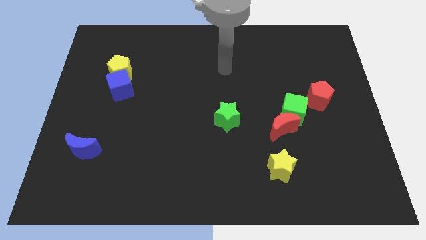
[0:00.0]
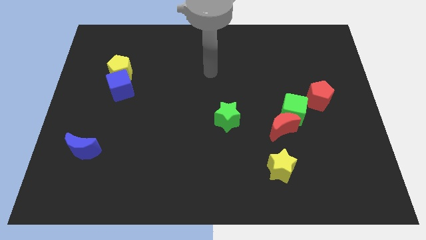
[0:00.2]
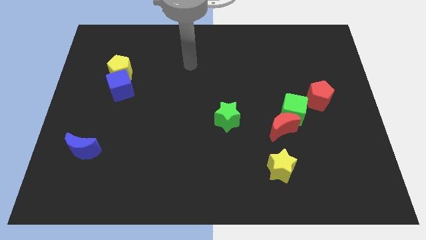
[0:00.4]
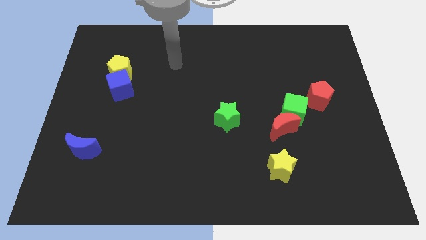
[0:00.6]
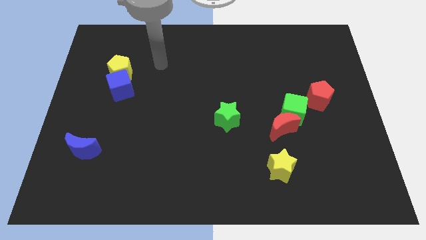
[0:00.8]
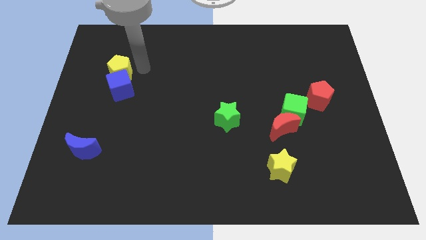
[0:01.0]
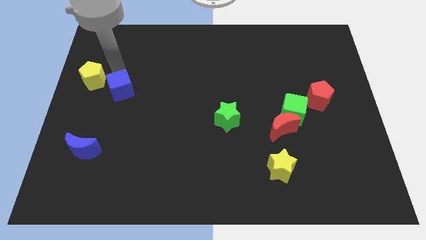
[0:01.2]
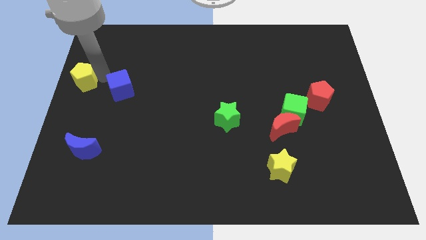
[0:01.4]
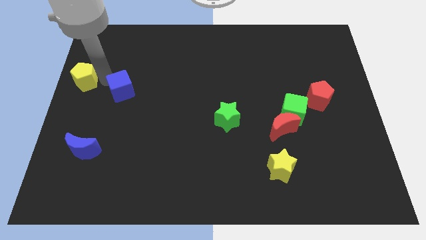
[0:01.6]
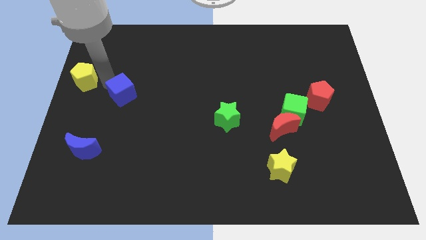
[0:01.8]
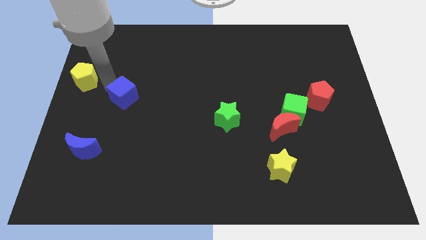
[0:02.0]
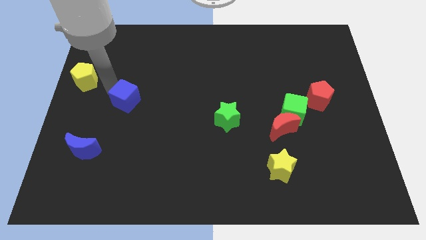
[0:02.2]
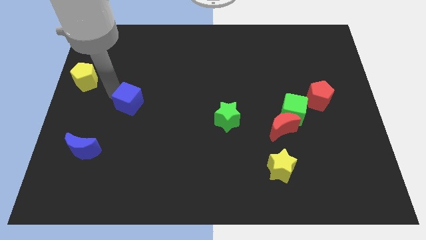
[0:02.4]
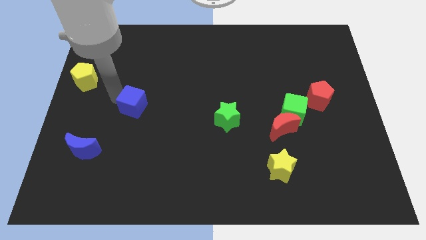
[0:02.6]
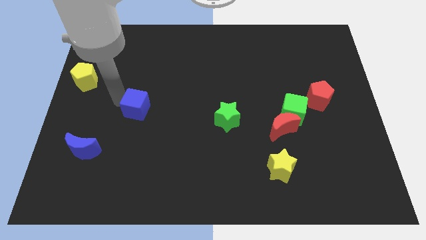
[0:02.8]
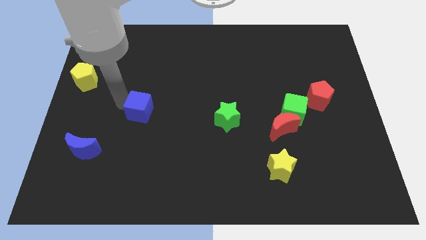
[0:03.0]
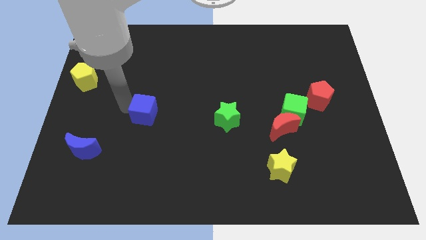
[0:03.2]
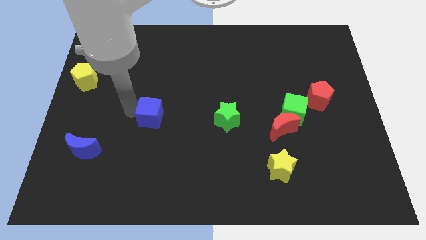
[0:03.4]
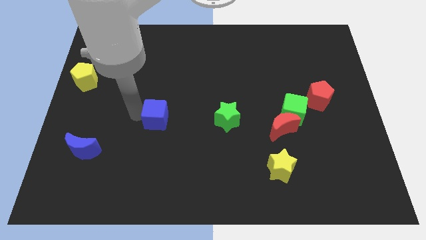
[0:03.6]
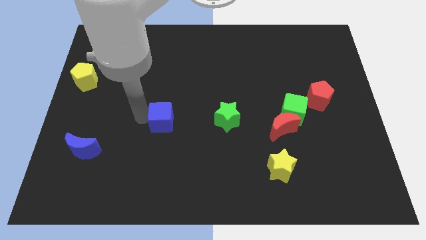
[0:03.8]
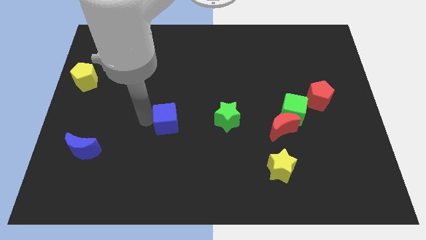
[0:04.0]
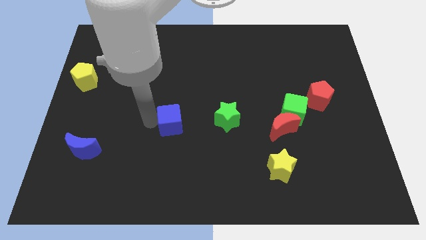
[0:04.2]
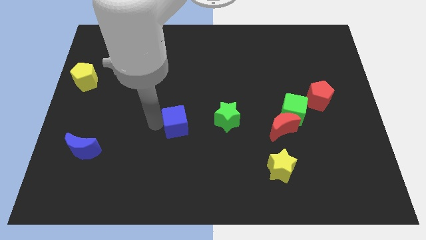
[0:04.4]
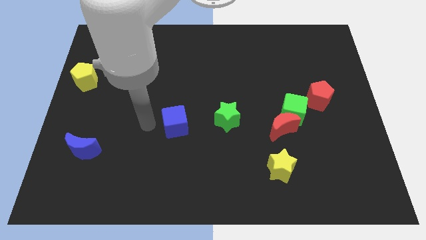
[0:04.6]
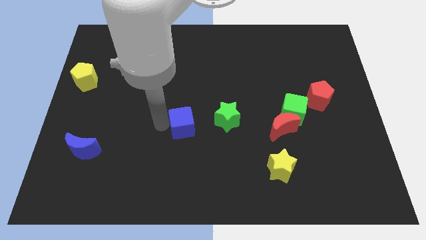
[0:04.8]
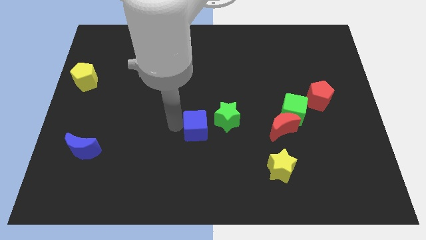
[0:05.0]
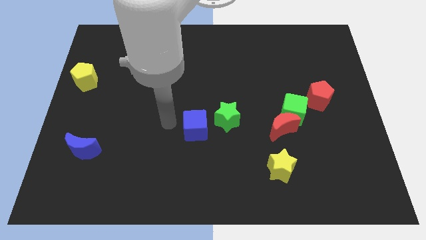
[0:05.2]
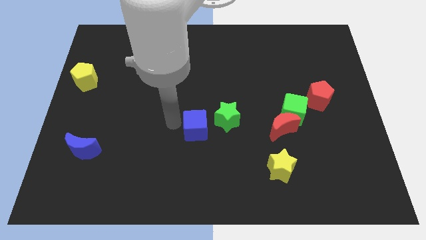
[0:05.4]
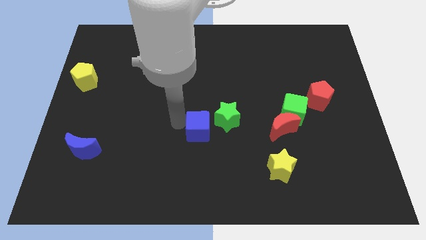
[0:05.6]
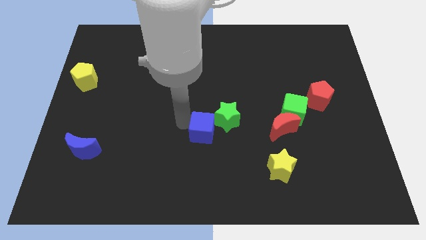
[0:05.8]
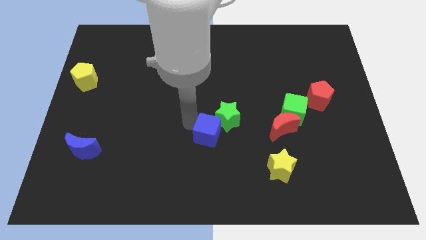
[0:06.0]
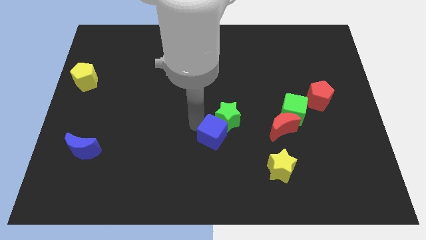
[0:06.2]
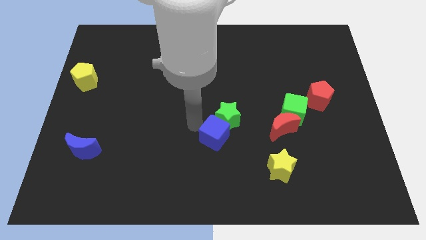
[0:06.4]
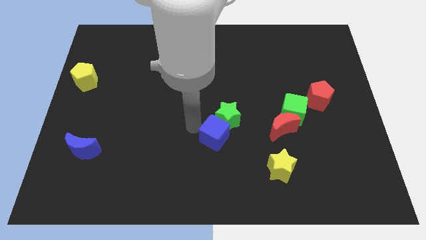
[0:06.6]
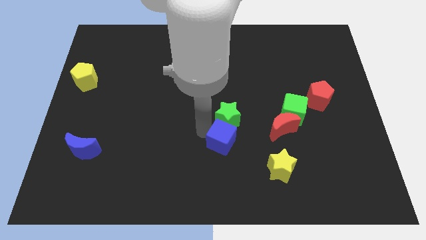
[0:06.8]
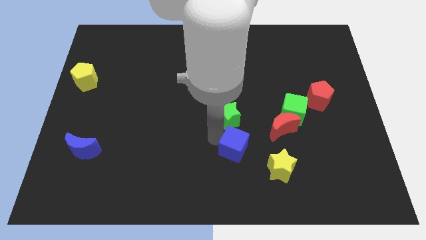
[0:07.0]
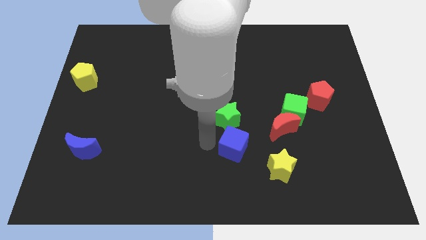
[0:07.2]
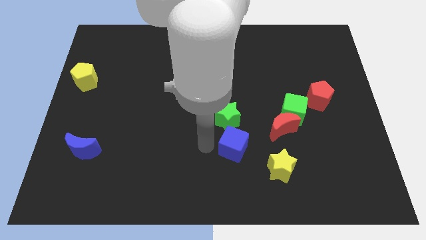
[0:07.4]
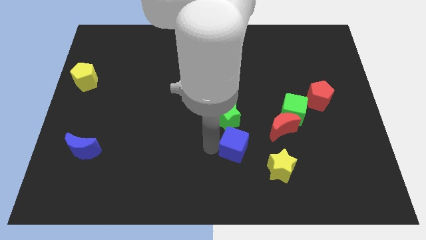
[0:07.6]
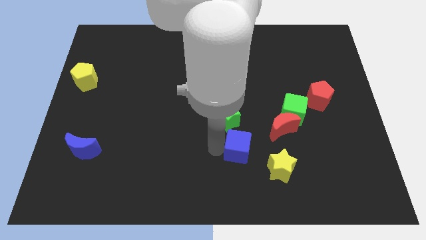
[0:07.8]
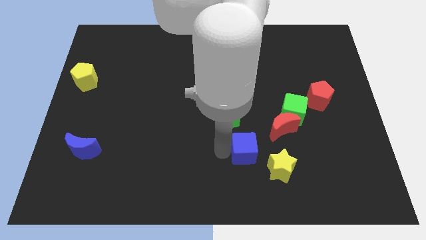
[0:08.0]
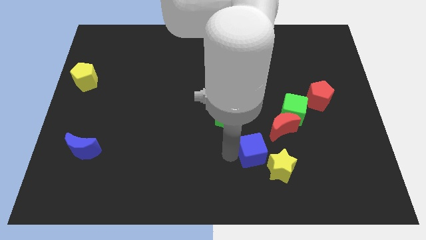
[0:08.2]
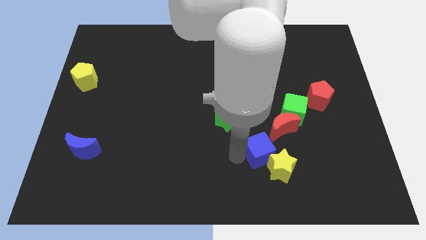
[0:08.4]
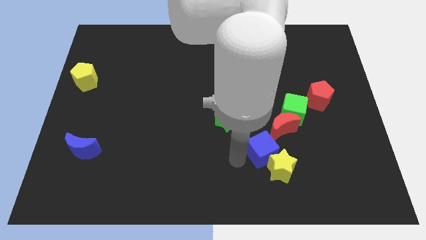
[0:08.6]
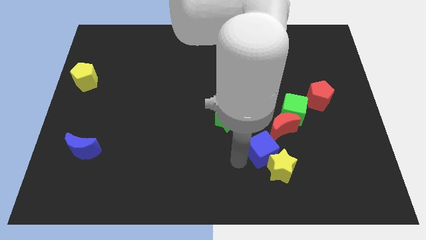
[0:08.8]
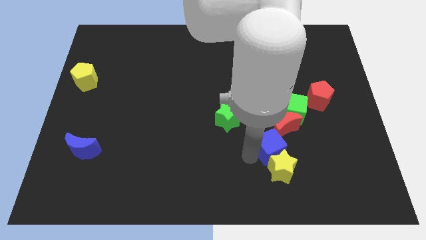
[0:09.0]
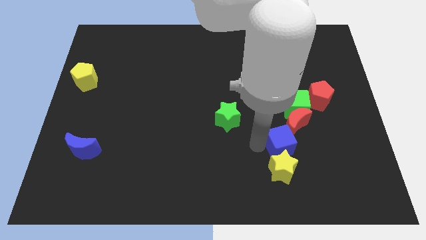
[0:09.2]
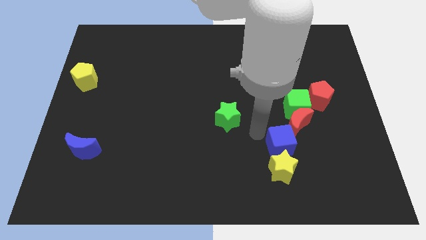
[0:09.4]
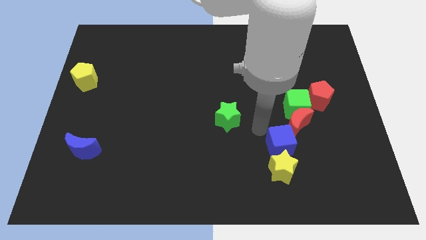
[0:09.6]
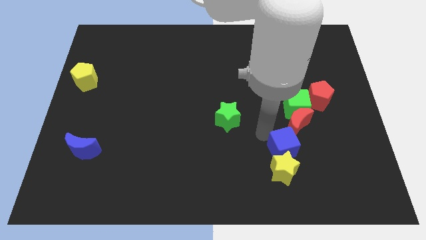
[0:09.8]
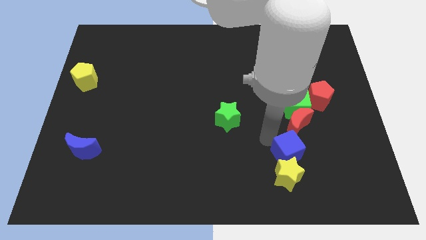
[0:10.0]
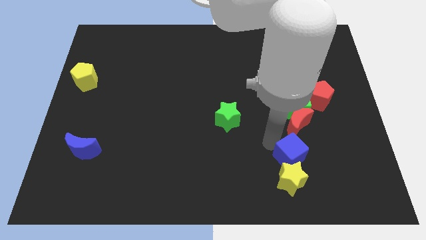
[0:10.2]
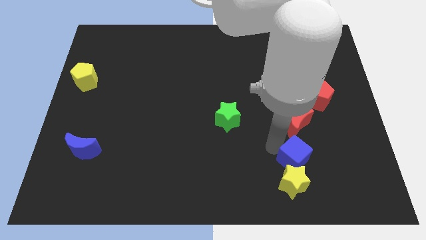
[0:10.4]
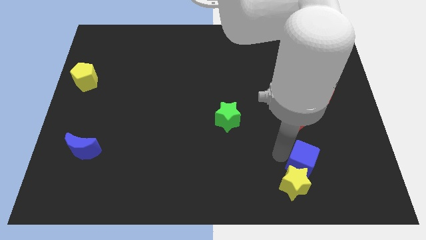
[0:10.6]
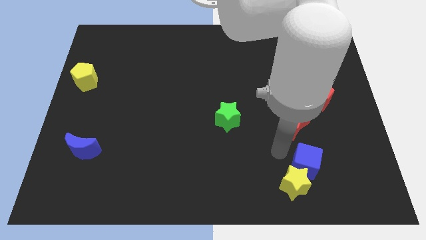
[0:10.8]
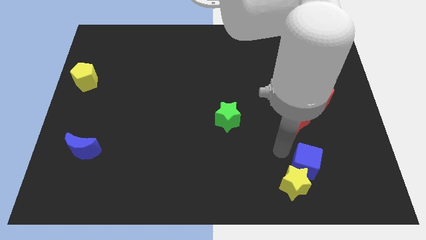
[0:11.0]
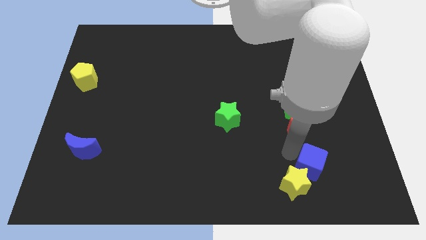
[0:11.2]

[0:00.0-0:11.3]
move the blue cube to the right side of the yellow star

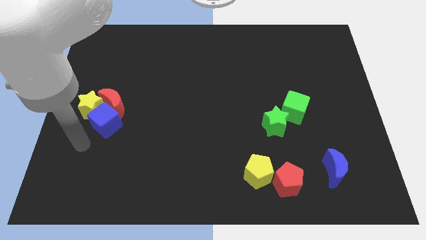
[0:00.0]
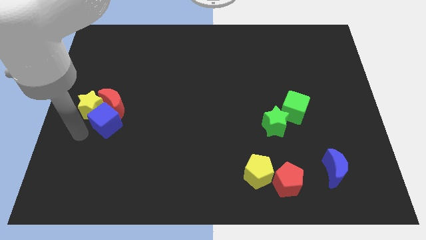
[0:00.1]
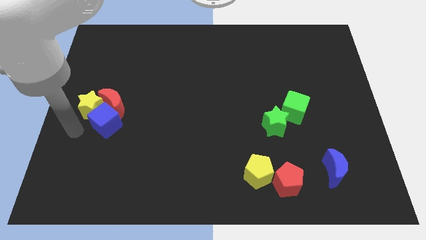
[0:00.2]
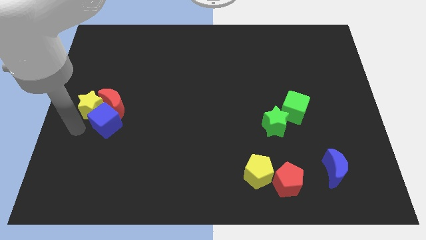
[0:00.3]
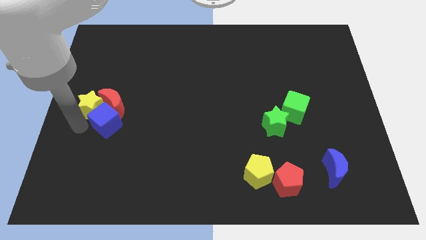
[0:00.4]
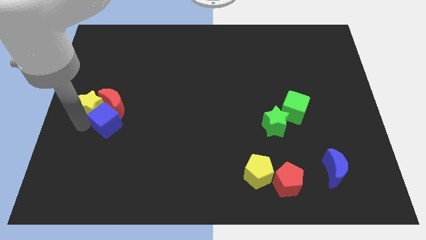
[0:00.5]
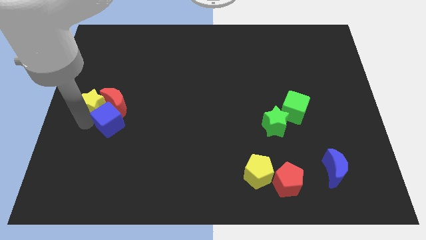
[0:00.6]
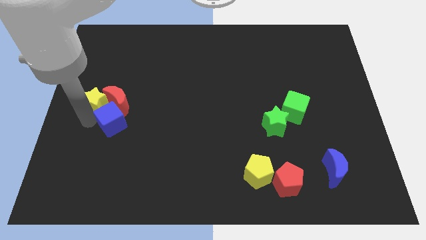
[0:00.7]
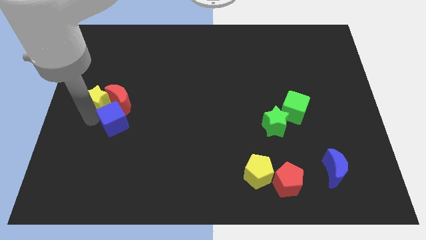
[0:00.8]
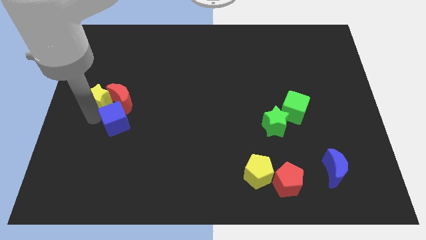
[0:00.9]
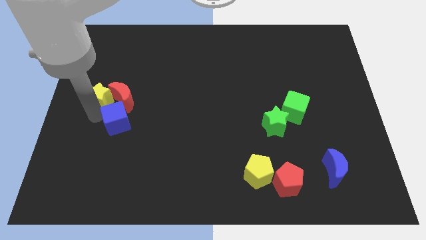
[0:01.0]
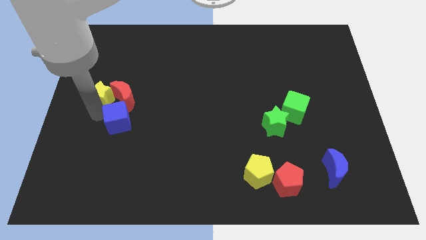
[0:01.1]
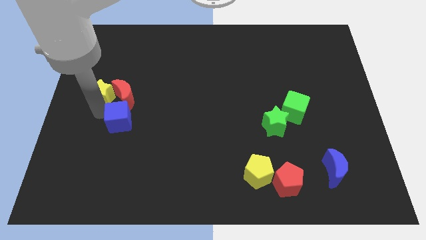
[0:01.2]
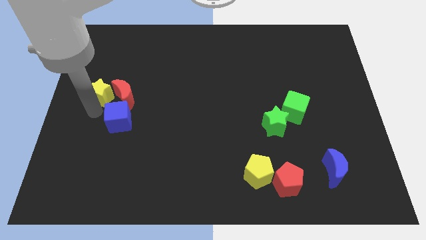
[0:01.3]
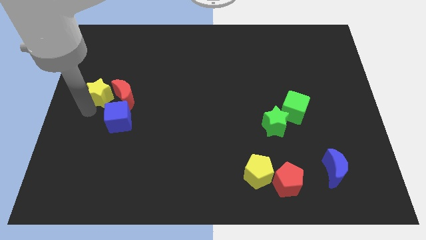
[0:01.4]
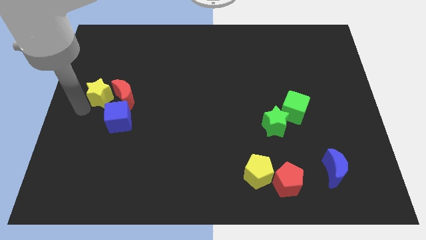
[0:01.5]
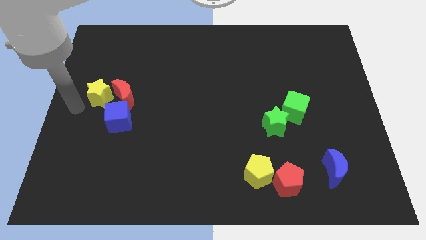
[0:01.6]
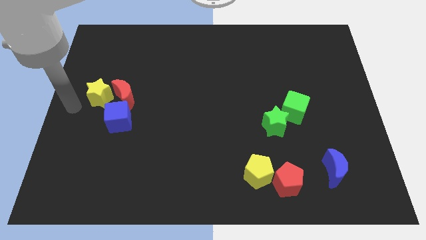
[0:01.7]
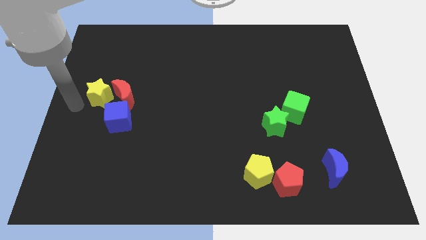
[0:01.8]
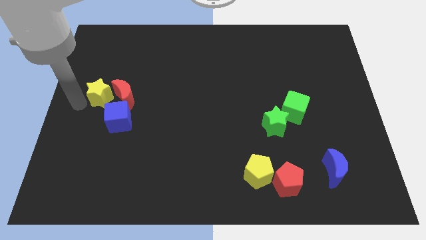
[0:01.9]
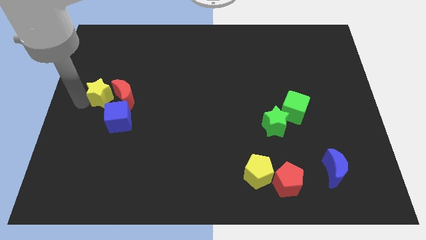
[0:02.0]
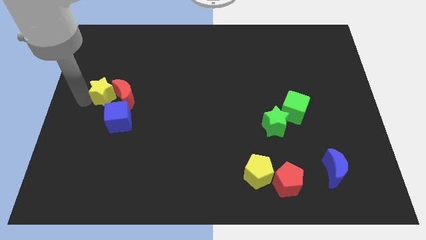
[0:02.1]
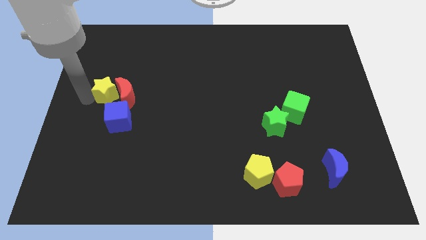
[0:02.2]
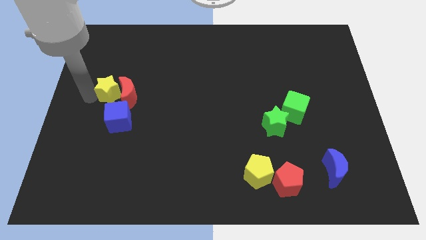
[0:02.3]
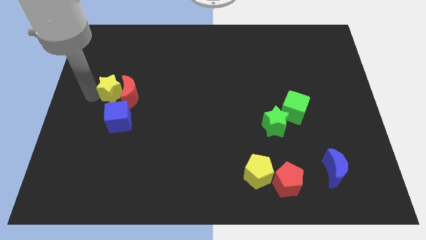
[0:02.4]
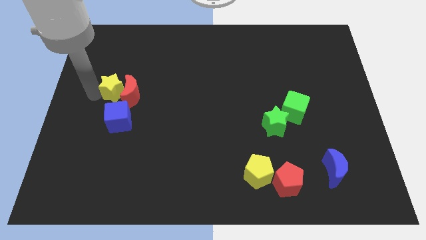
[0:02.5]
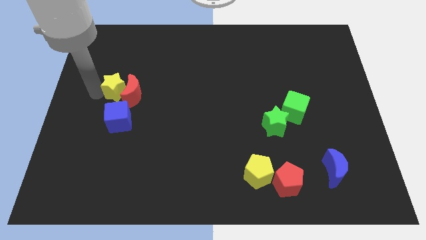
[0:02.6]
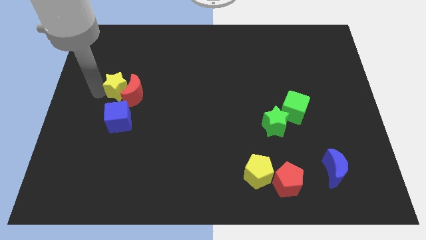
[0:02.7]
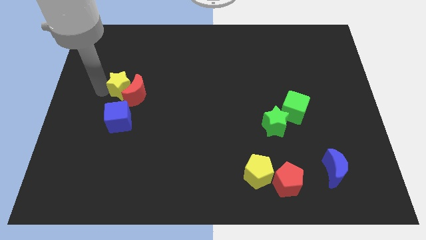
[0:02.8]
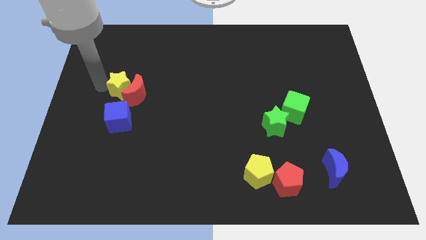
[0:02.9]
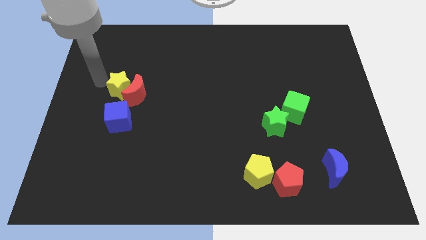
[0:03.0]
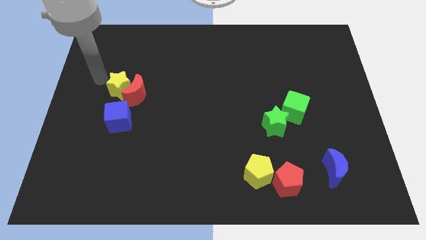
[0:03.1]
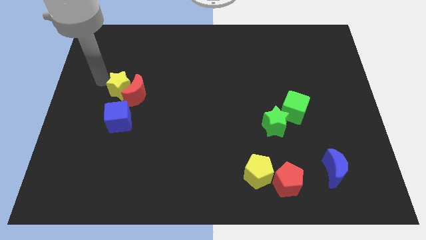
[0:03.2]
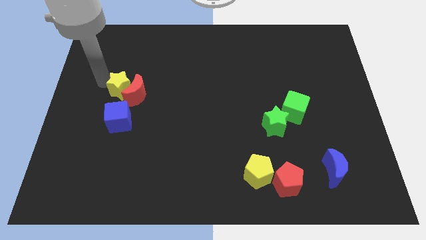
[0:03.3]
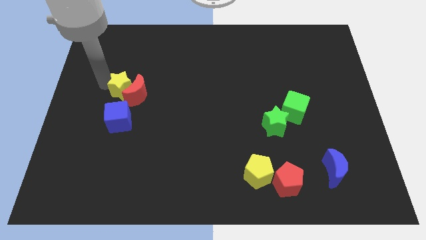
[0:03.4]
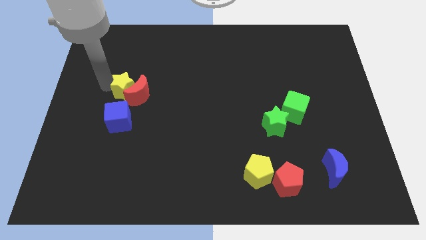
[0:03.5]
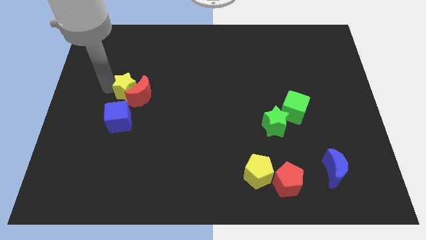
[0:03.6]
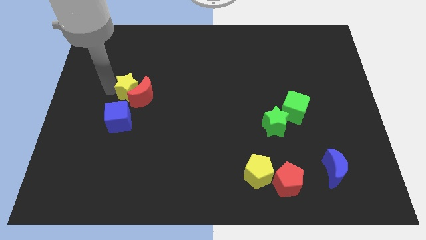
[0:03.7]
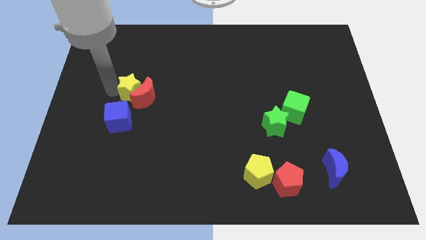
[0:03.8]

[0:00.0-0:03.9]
put the yellow star to the top right of the blue cube
